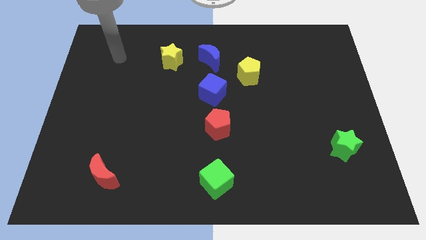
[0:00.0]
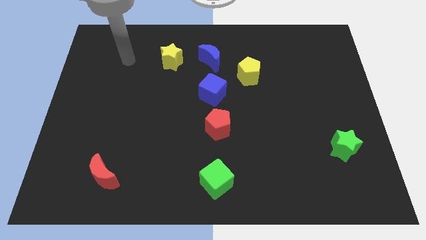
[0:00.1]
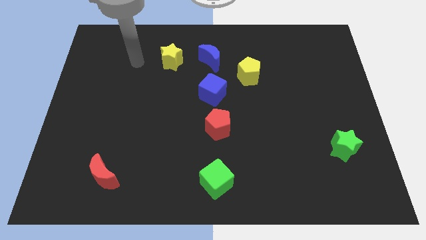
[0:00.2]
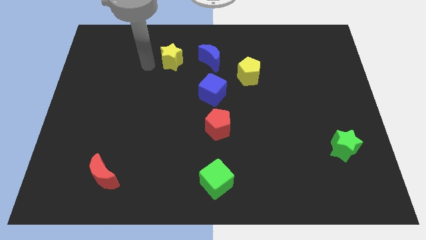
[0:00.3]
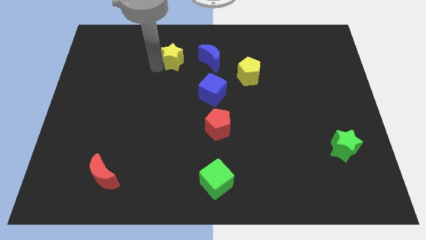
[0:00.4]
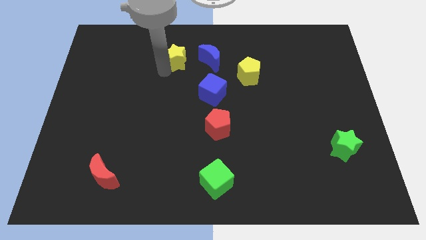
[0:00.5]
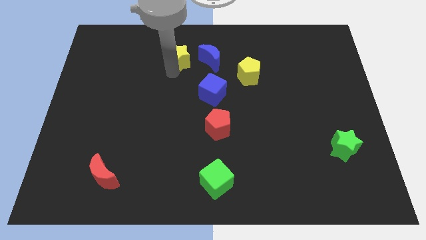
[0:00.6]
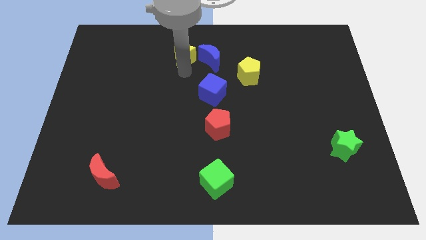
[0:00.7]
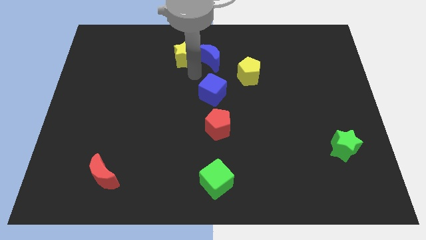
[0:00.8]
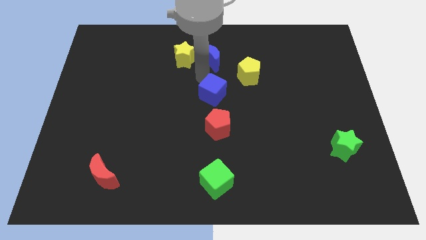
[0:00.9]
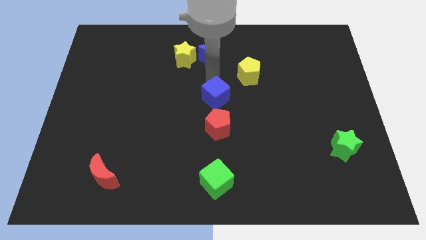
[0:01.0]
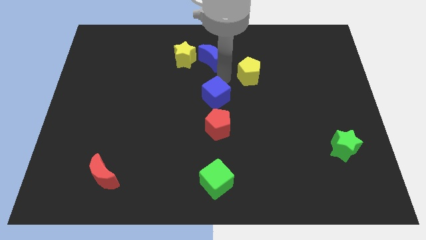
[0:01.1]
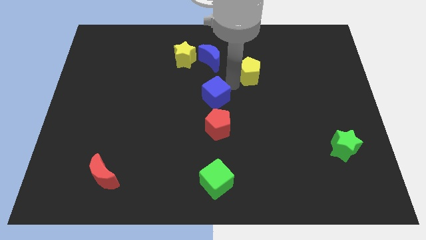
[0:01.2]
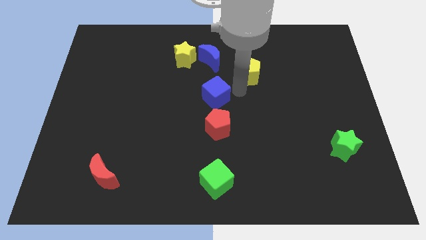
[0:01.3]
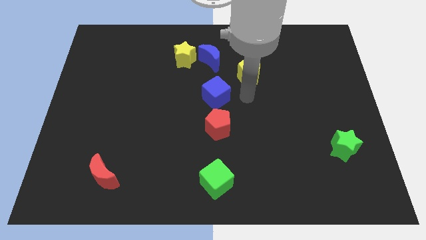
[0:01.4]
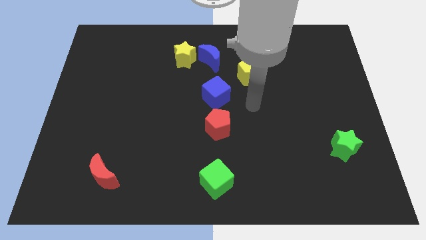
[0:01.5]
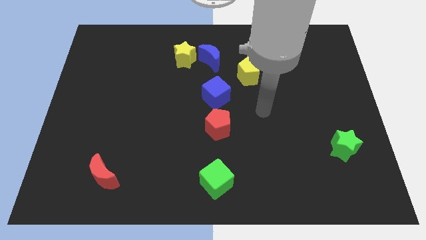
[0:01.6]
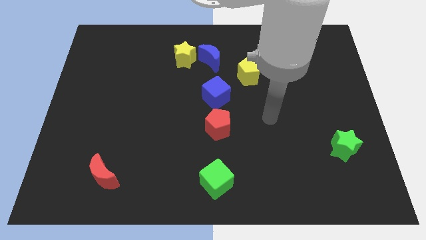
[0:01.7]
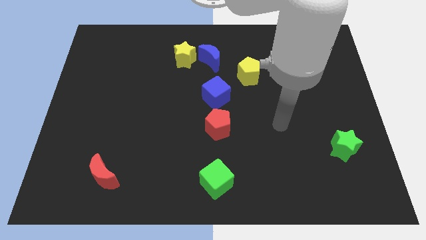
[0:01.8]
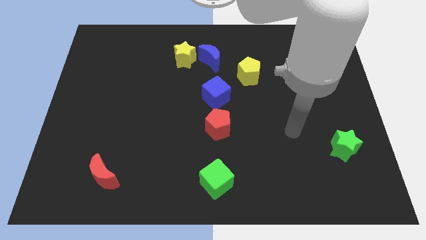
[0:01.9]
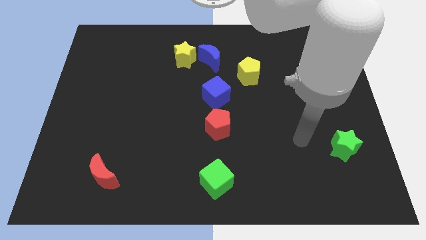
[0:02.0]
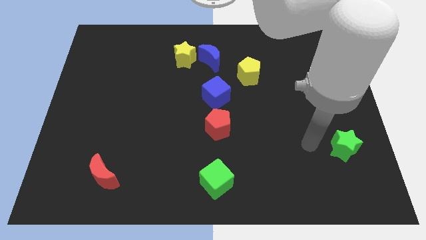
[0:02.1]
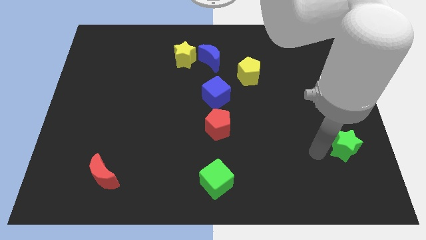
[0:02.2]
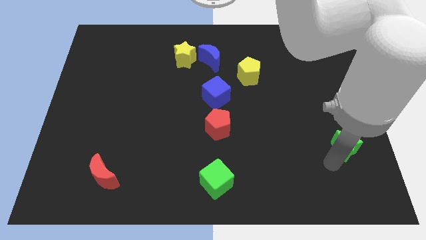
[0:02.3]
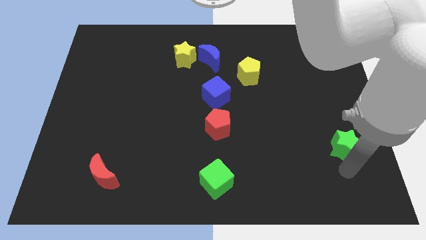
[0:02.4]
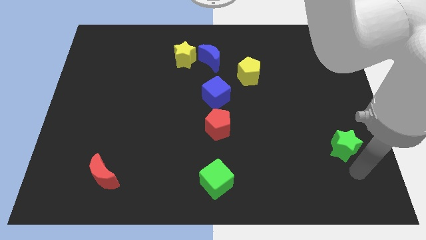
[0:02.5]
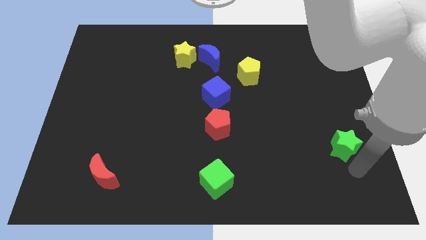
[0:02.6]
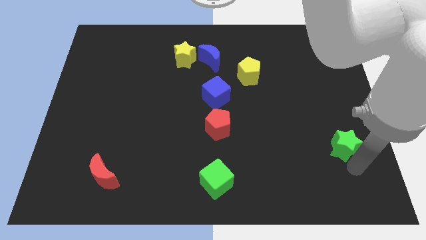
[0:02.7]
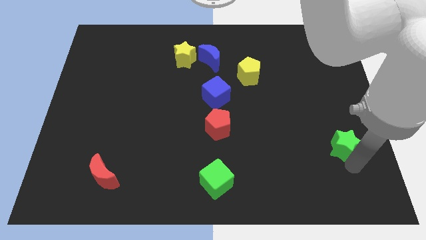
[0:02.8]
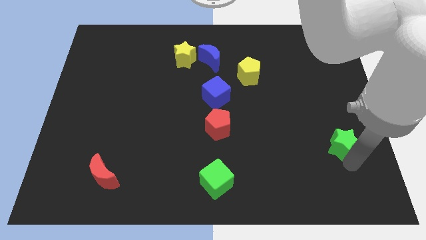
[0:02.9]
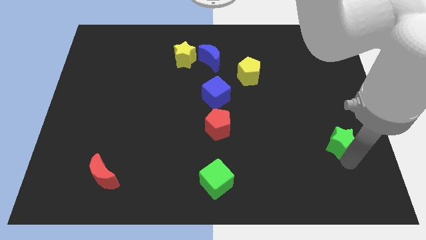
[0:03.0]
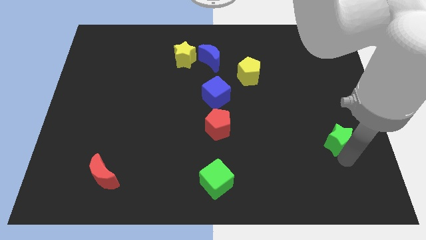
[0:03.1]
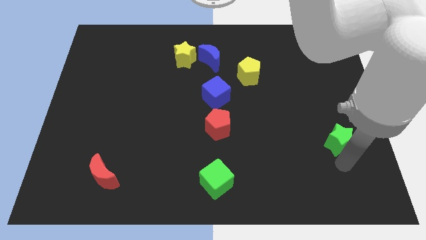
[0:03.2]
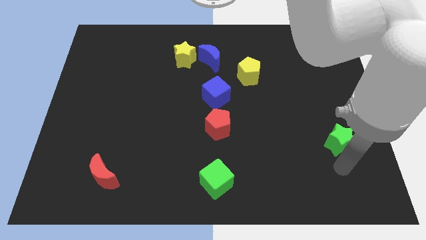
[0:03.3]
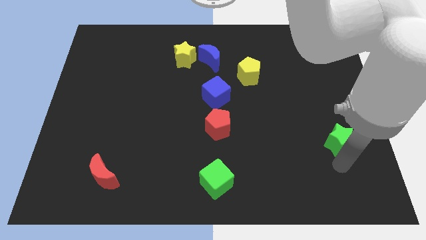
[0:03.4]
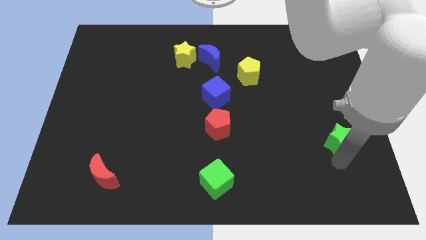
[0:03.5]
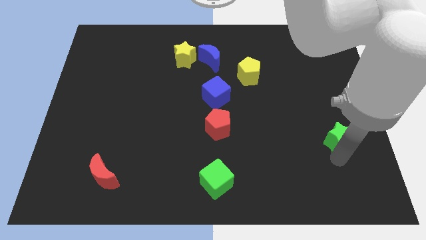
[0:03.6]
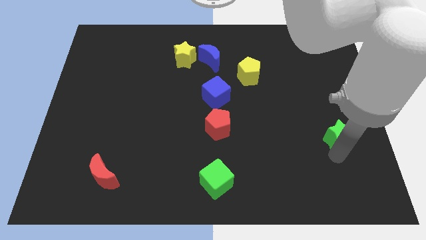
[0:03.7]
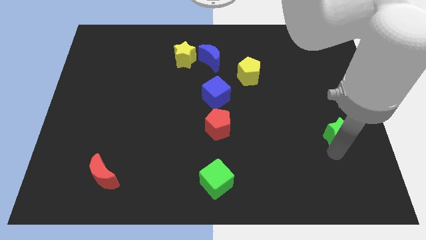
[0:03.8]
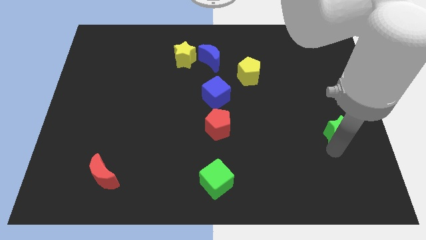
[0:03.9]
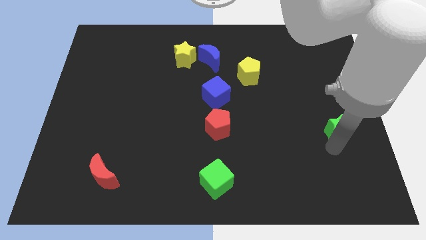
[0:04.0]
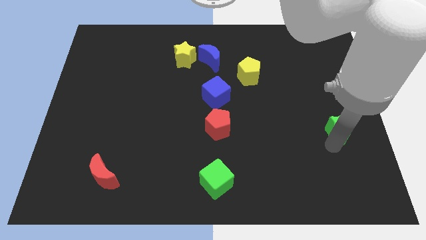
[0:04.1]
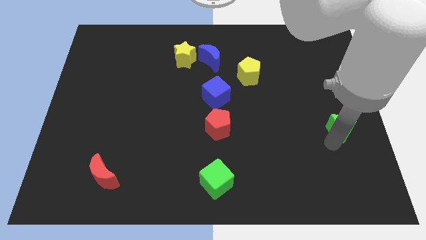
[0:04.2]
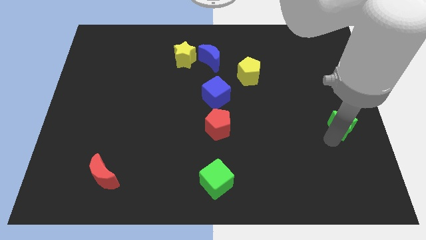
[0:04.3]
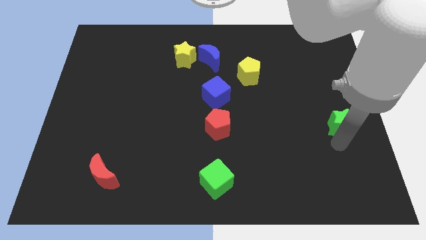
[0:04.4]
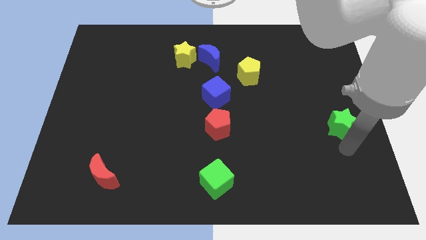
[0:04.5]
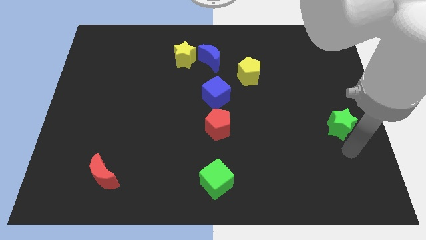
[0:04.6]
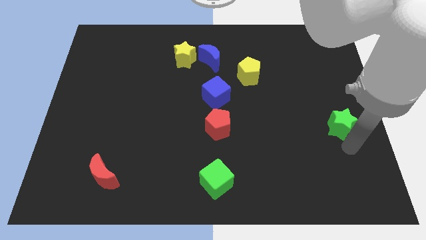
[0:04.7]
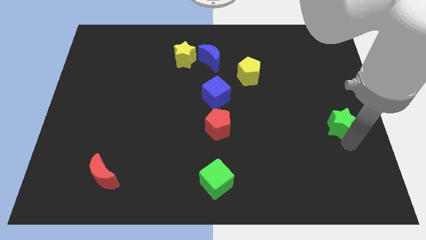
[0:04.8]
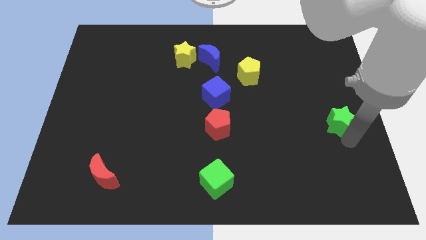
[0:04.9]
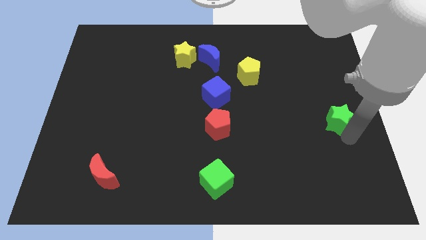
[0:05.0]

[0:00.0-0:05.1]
move the green star upwards slightly

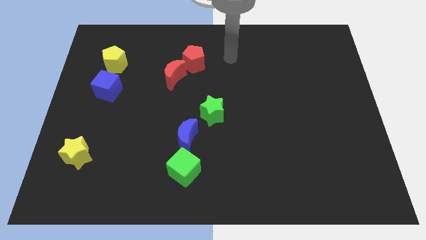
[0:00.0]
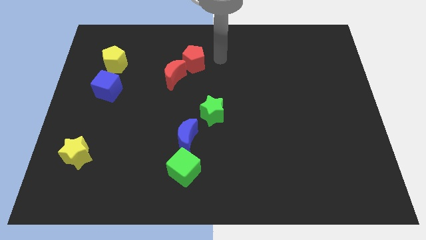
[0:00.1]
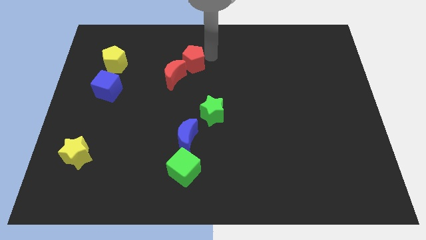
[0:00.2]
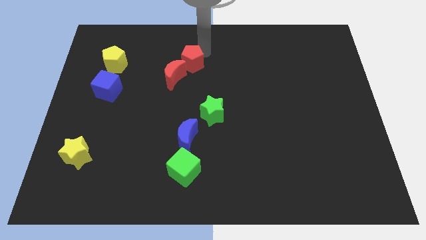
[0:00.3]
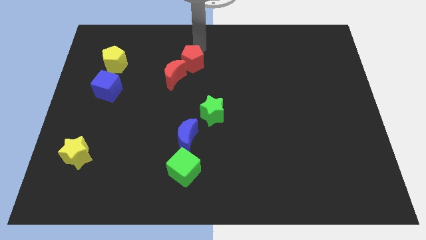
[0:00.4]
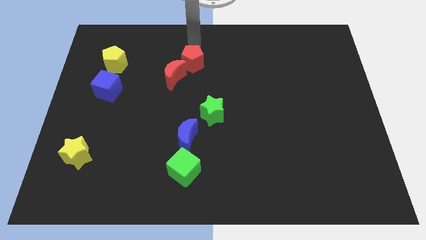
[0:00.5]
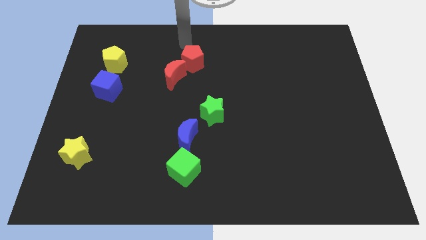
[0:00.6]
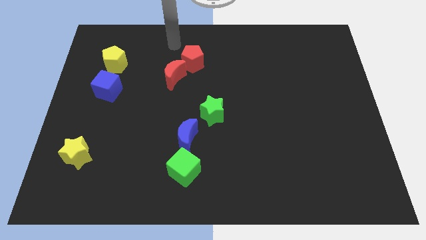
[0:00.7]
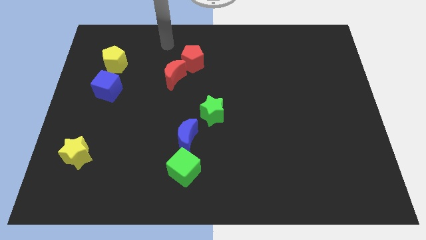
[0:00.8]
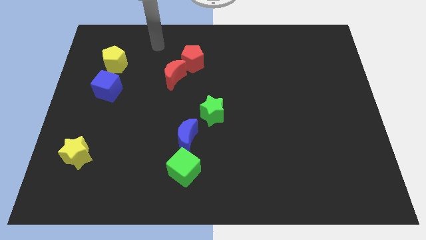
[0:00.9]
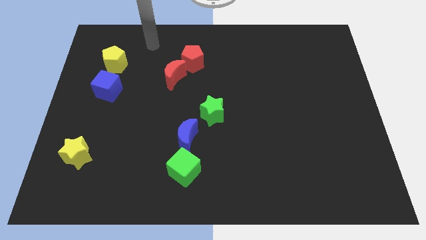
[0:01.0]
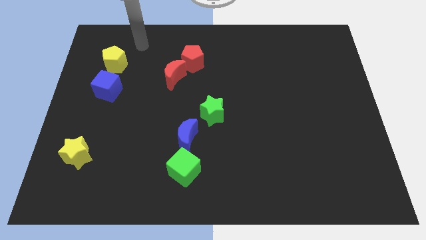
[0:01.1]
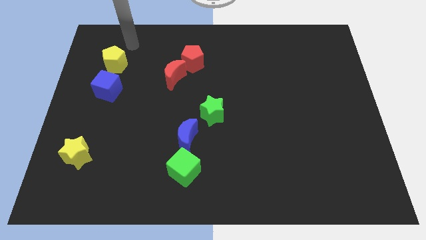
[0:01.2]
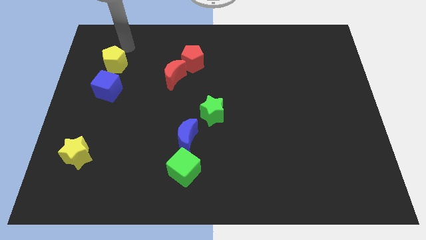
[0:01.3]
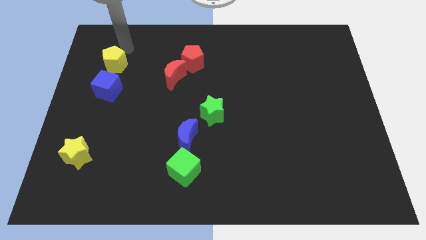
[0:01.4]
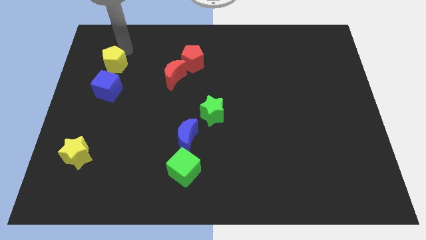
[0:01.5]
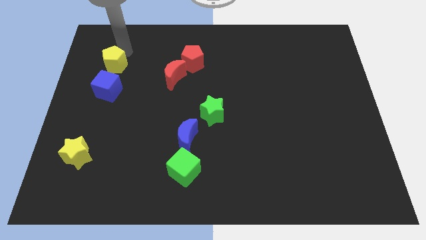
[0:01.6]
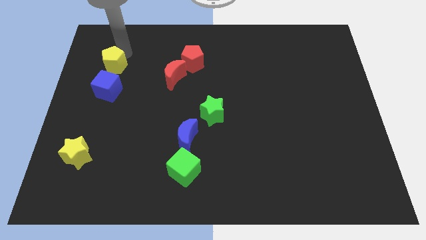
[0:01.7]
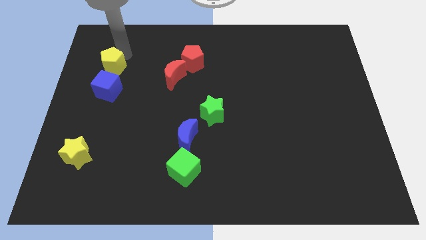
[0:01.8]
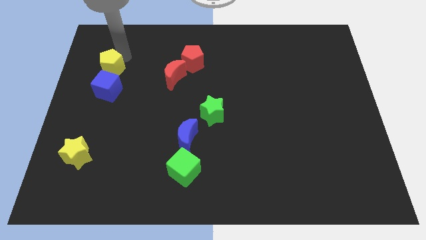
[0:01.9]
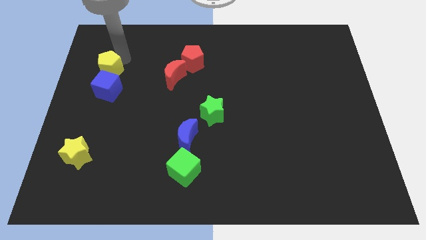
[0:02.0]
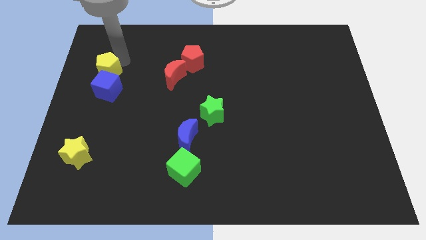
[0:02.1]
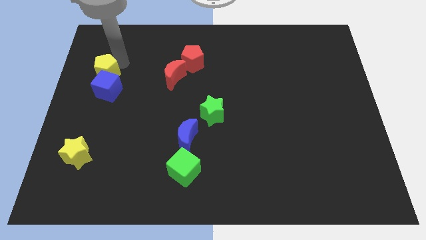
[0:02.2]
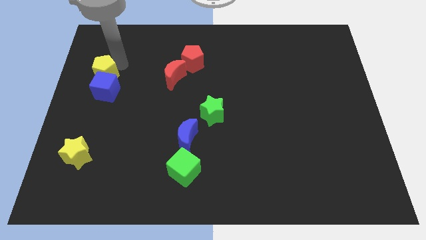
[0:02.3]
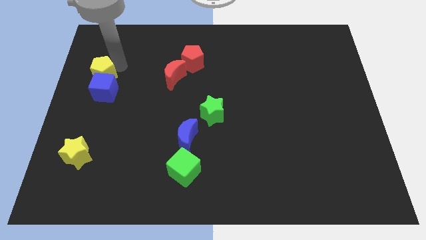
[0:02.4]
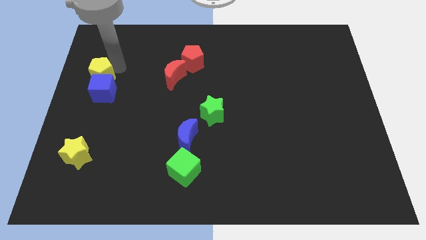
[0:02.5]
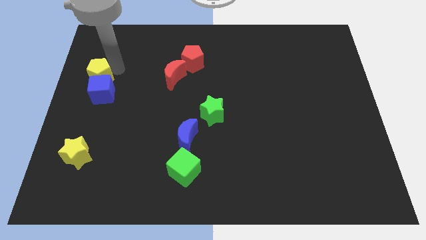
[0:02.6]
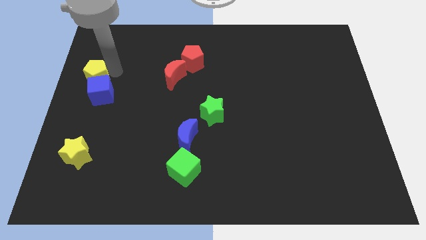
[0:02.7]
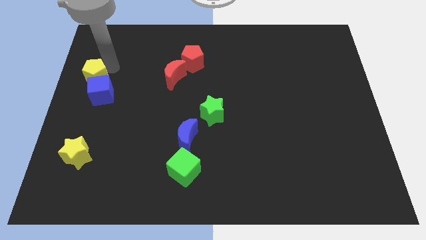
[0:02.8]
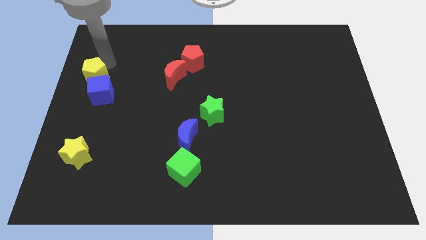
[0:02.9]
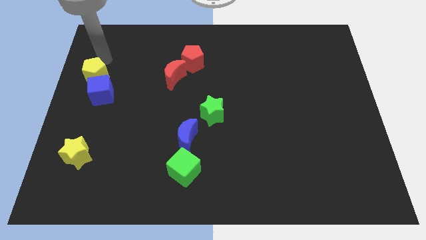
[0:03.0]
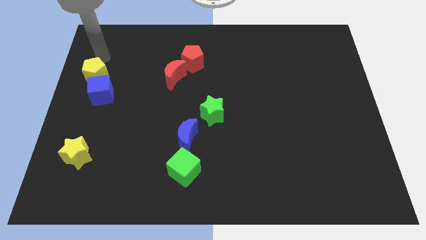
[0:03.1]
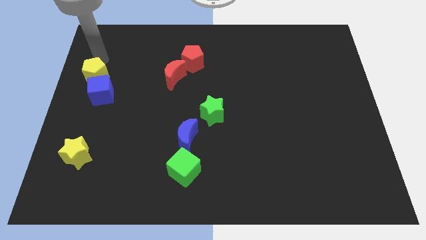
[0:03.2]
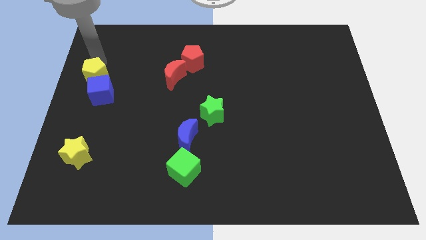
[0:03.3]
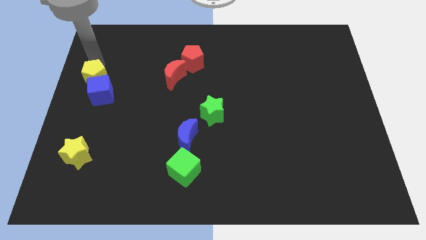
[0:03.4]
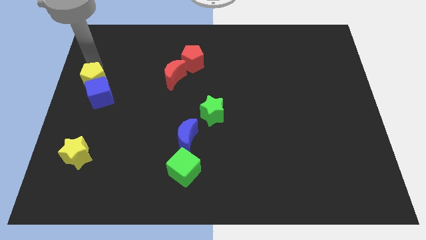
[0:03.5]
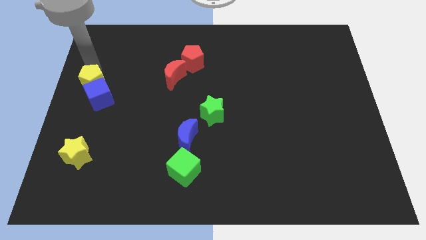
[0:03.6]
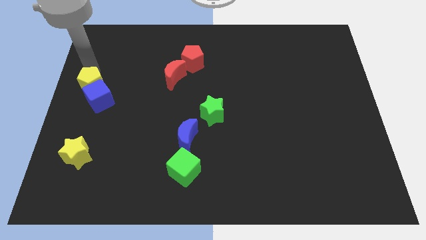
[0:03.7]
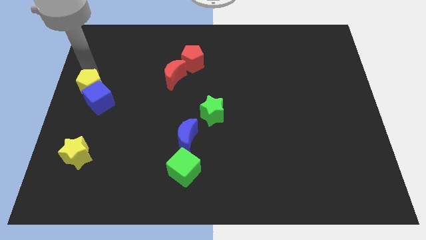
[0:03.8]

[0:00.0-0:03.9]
slide the yellow pentagon a little down
